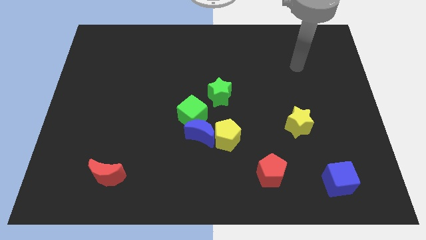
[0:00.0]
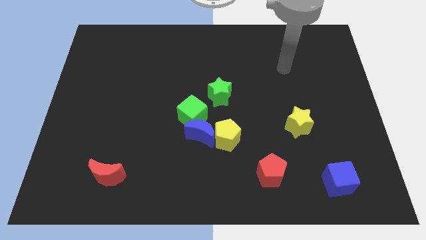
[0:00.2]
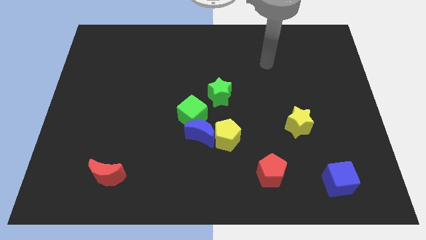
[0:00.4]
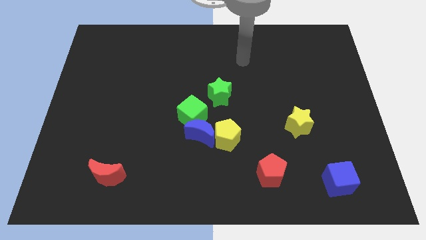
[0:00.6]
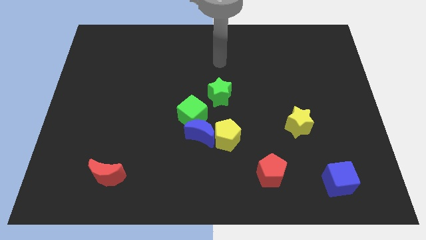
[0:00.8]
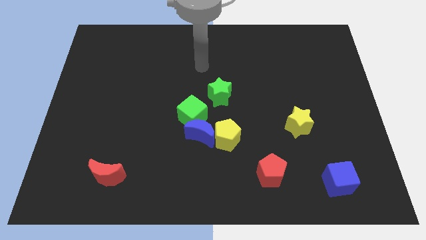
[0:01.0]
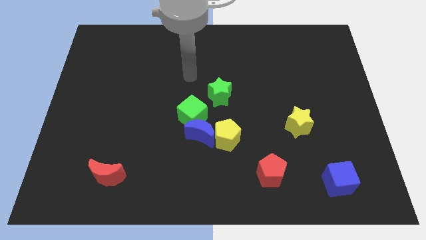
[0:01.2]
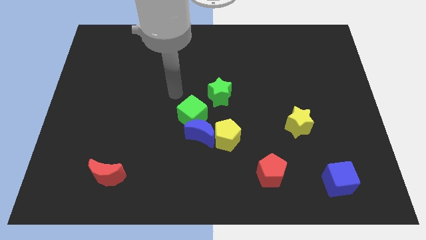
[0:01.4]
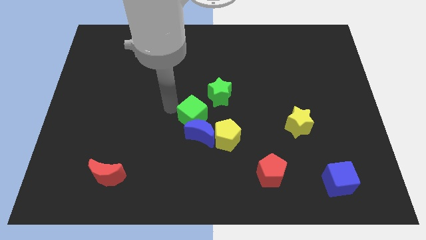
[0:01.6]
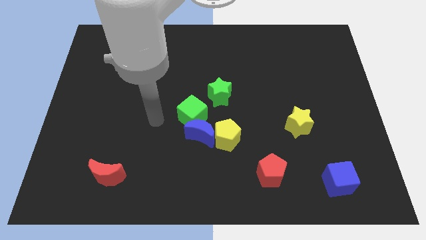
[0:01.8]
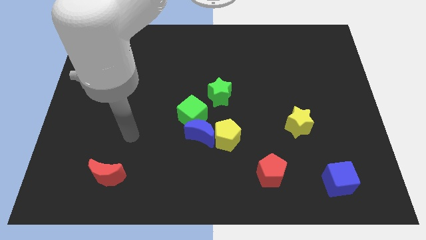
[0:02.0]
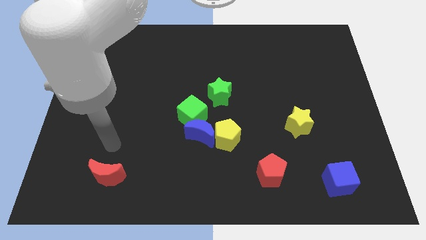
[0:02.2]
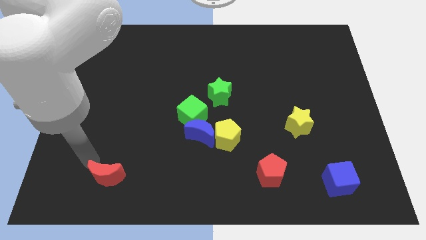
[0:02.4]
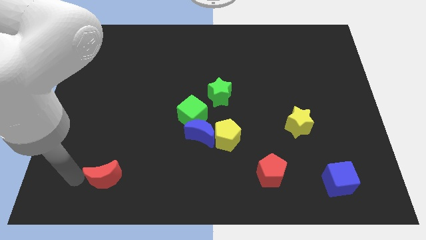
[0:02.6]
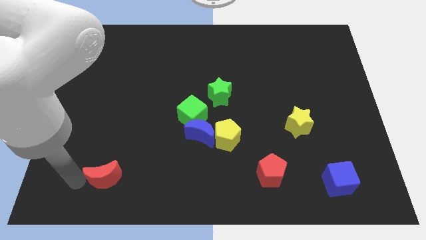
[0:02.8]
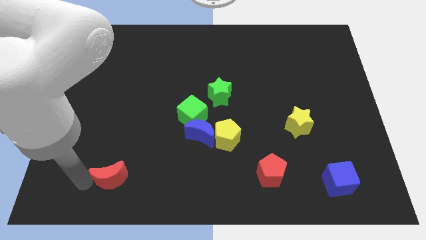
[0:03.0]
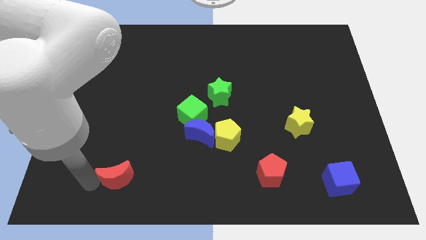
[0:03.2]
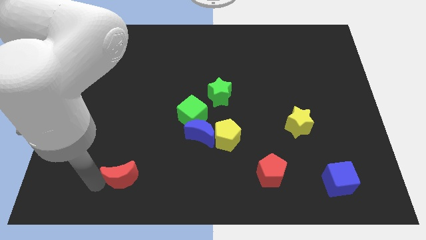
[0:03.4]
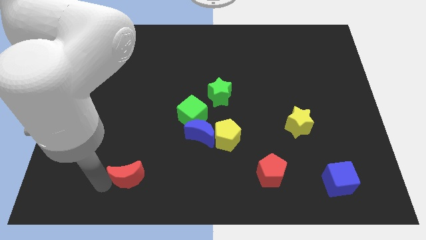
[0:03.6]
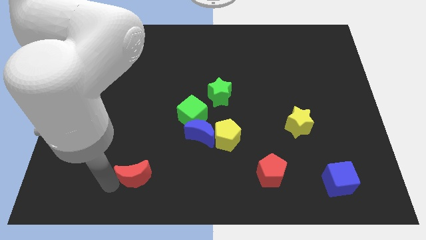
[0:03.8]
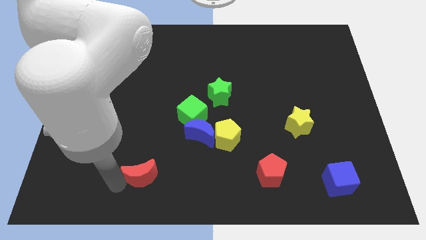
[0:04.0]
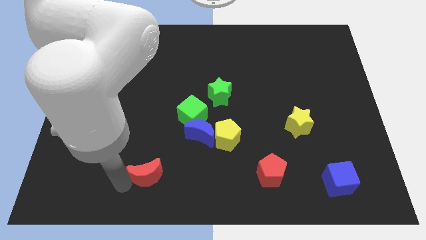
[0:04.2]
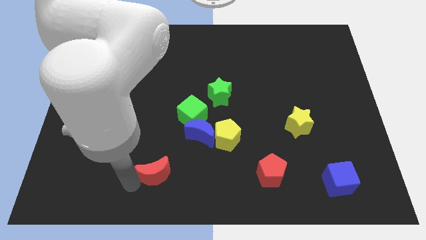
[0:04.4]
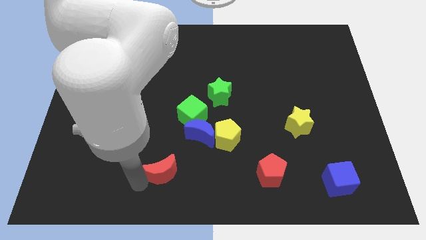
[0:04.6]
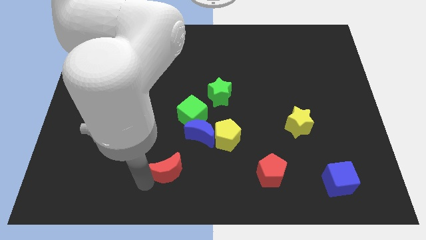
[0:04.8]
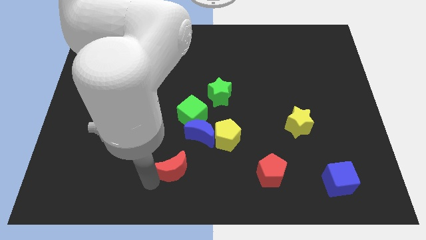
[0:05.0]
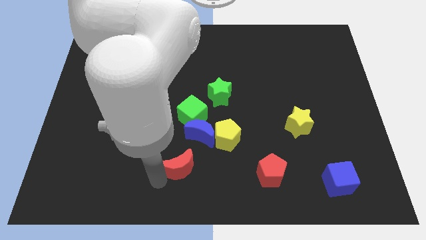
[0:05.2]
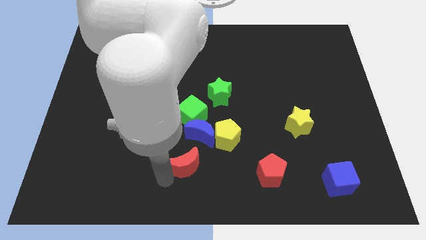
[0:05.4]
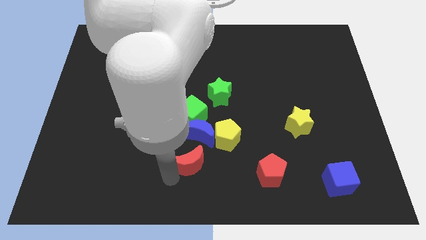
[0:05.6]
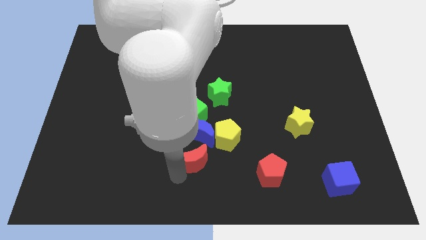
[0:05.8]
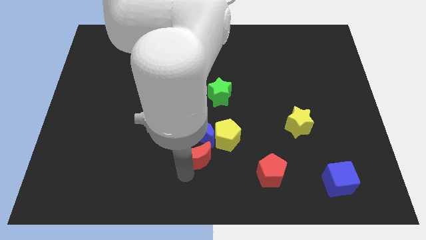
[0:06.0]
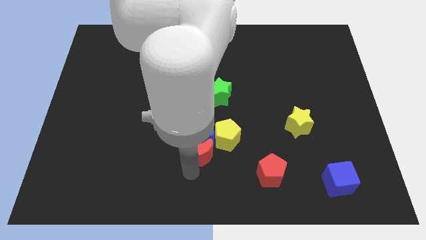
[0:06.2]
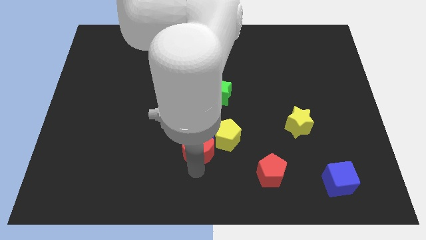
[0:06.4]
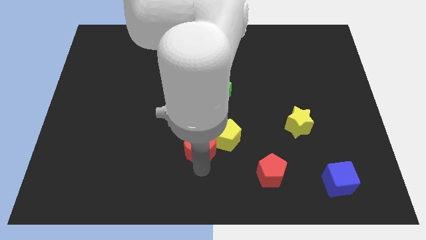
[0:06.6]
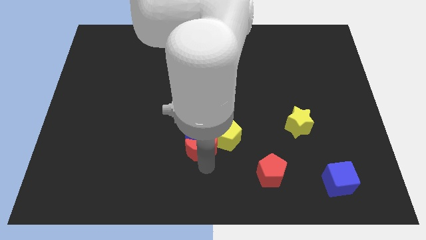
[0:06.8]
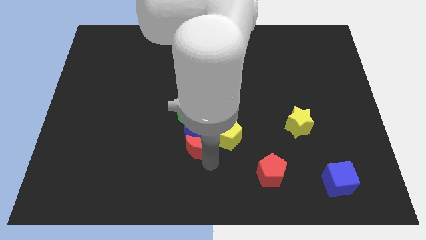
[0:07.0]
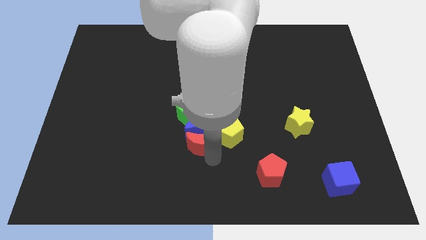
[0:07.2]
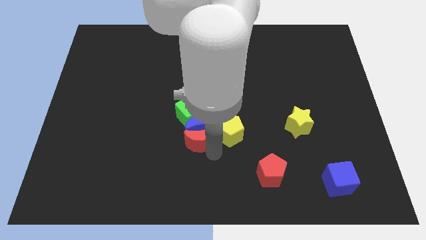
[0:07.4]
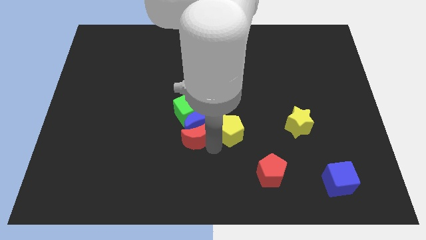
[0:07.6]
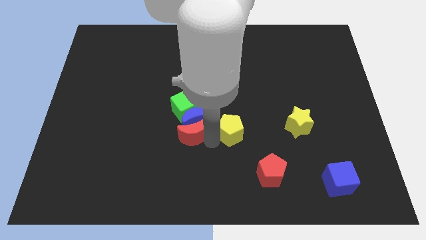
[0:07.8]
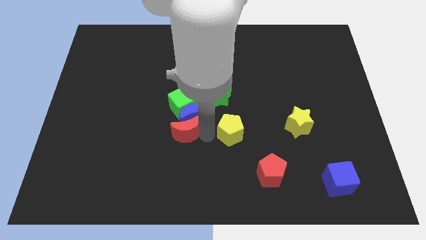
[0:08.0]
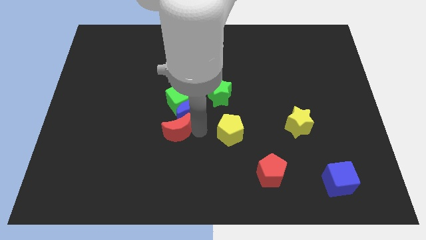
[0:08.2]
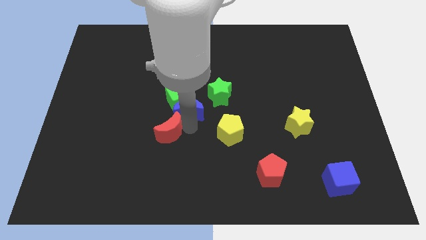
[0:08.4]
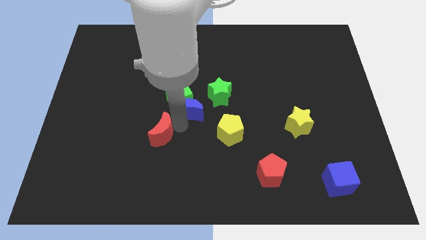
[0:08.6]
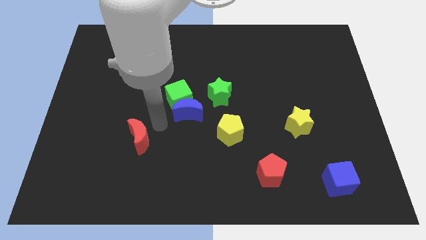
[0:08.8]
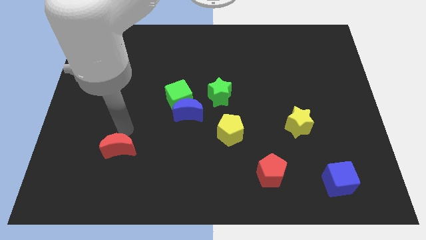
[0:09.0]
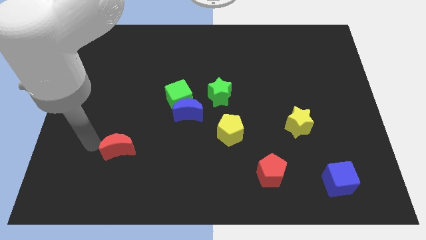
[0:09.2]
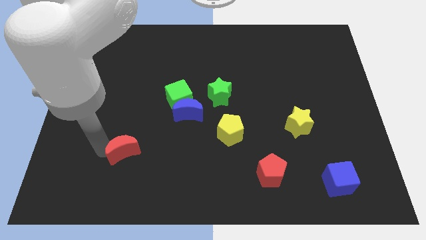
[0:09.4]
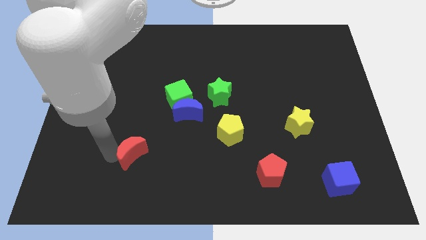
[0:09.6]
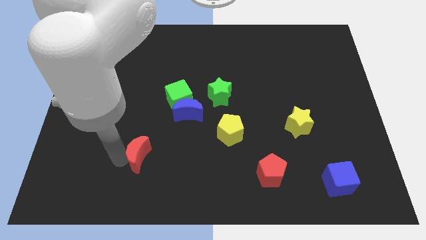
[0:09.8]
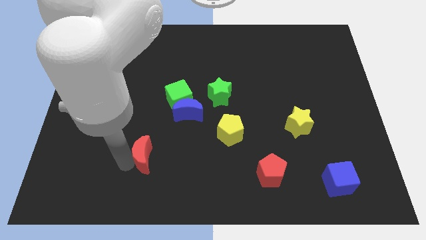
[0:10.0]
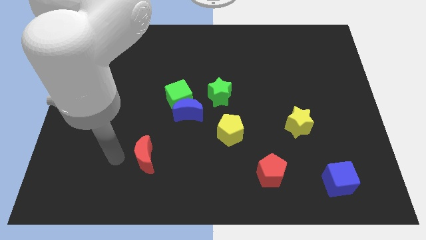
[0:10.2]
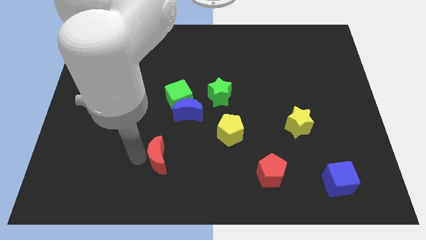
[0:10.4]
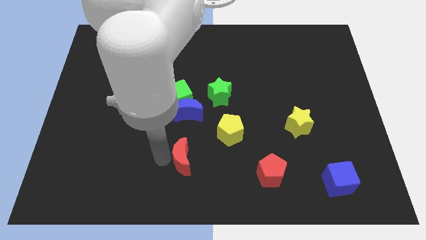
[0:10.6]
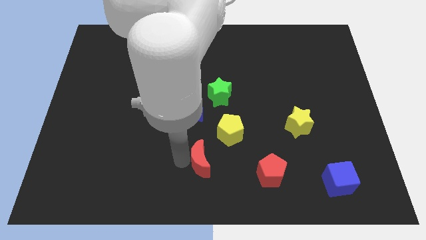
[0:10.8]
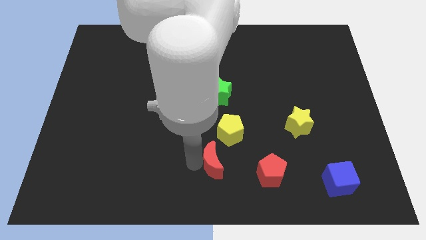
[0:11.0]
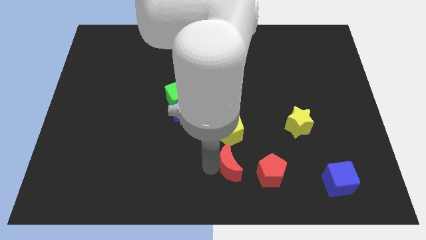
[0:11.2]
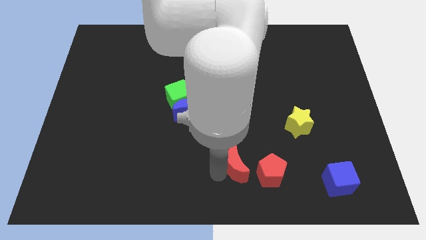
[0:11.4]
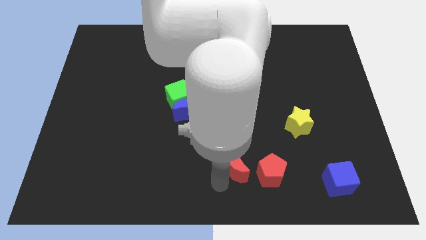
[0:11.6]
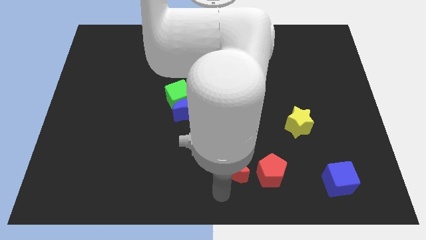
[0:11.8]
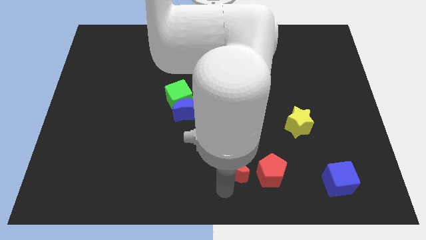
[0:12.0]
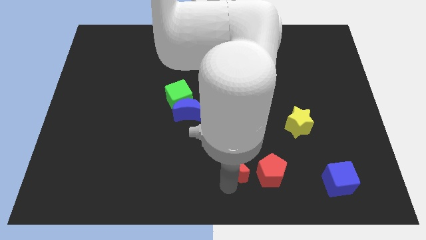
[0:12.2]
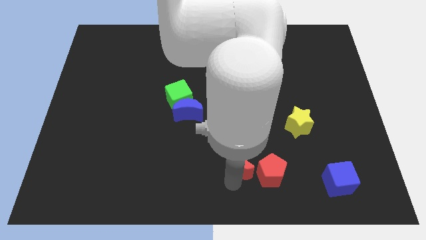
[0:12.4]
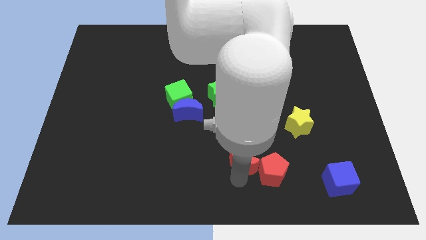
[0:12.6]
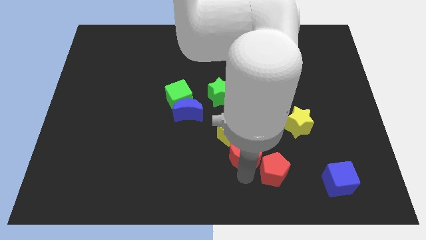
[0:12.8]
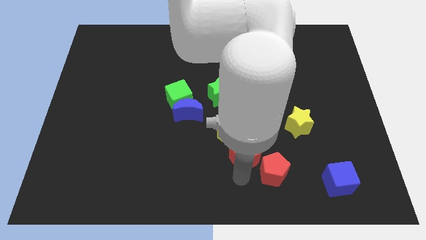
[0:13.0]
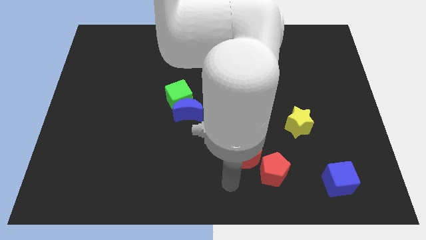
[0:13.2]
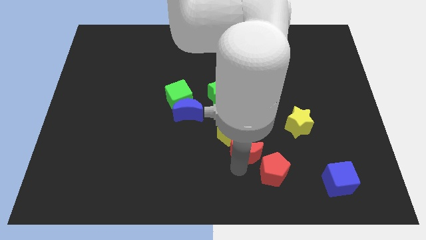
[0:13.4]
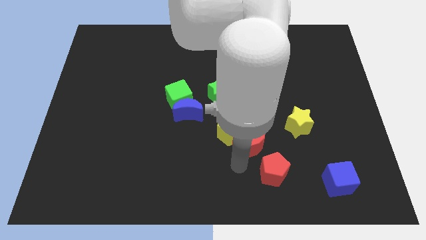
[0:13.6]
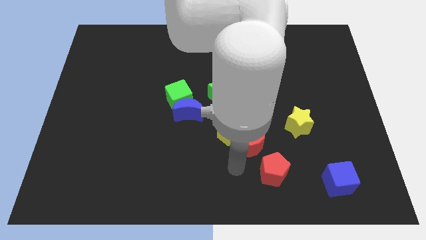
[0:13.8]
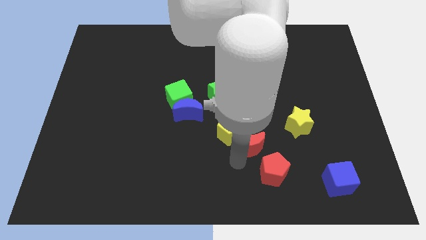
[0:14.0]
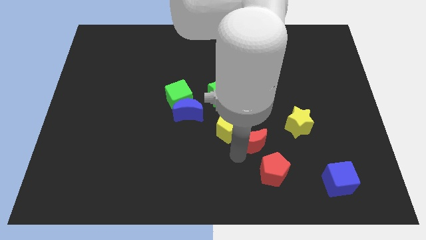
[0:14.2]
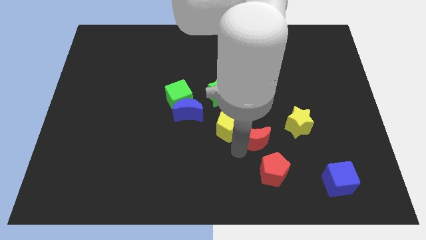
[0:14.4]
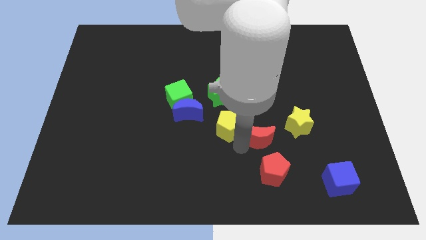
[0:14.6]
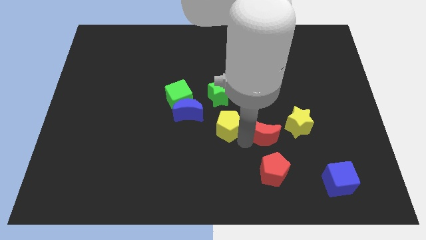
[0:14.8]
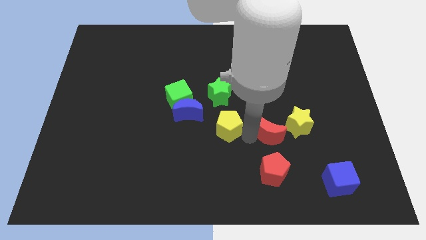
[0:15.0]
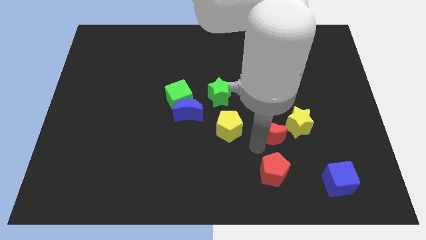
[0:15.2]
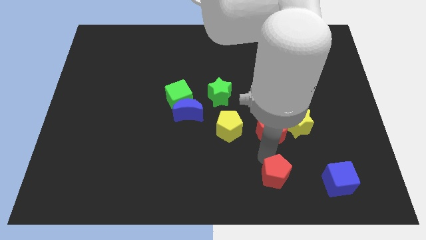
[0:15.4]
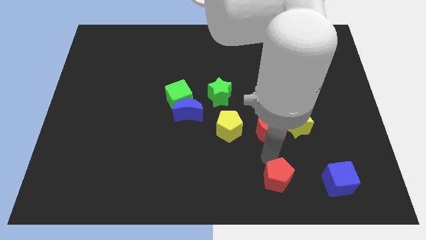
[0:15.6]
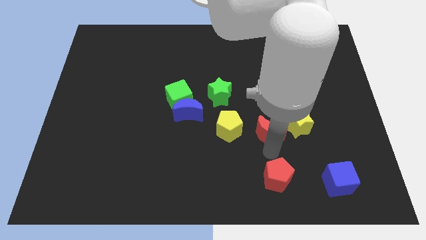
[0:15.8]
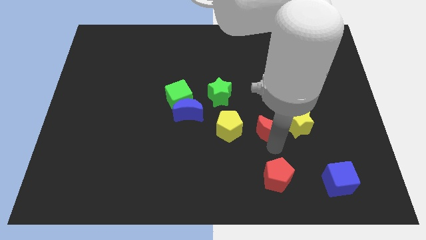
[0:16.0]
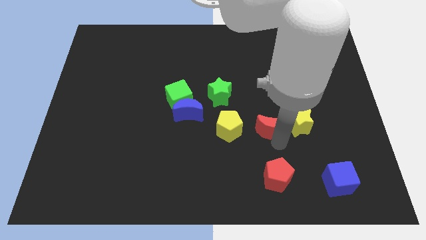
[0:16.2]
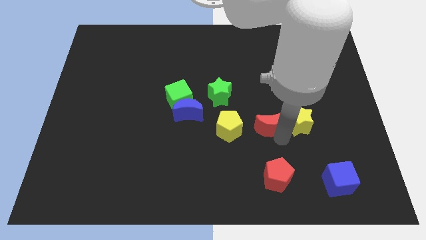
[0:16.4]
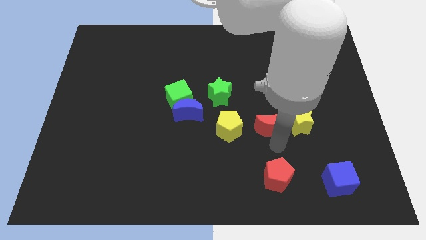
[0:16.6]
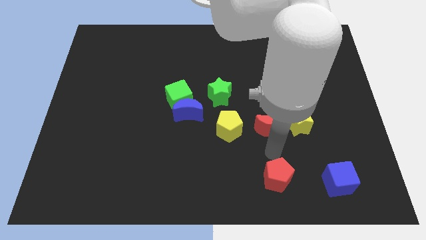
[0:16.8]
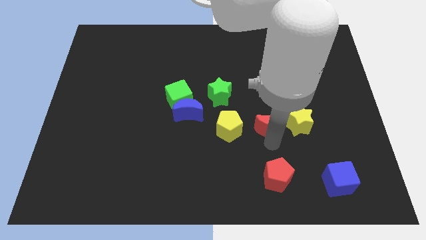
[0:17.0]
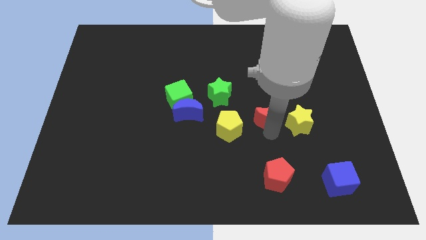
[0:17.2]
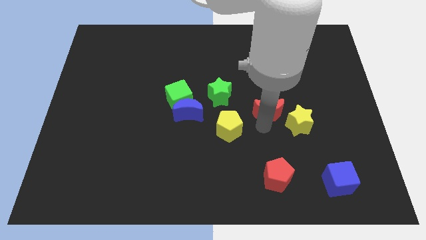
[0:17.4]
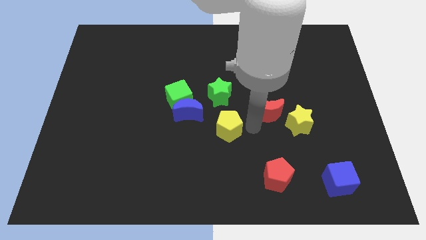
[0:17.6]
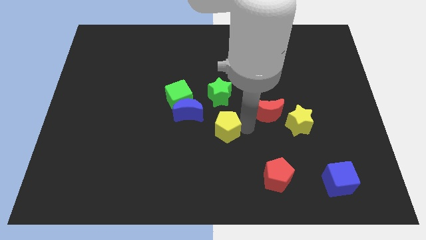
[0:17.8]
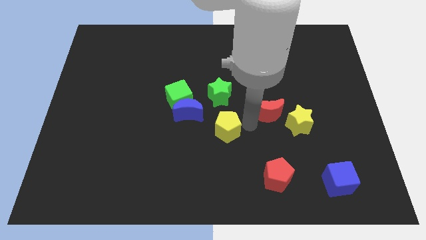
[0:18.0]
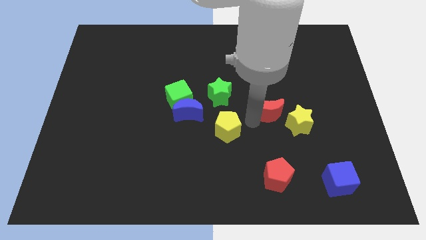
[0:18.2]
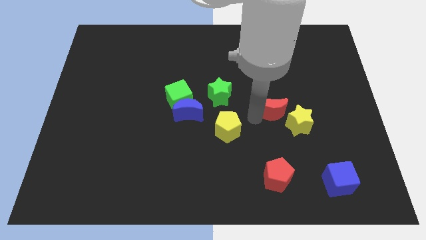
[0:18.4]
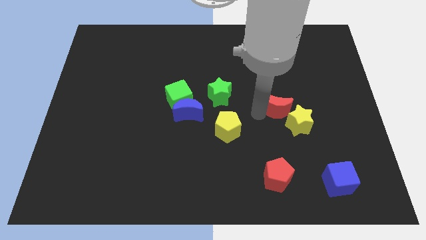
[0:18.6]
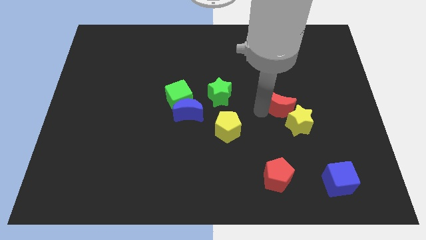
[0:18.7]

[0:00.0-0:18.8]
push the red moon to the top side of the yellow star
